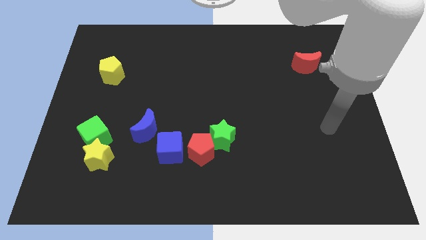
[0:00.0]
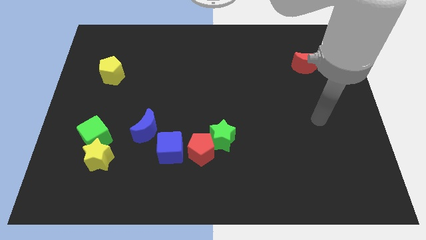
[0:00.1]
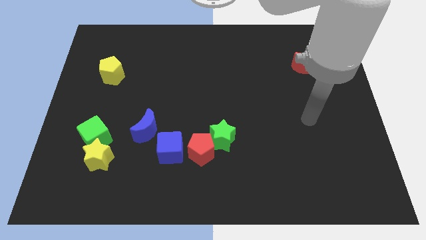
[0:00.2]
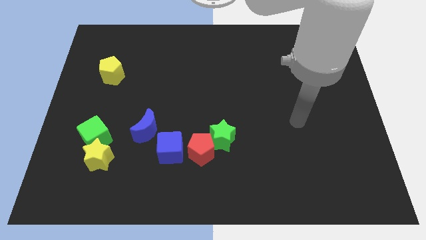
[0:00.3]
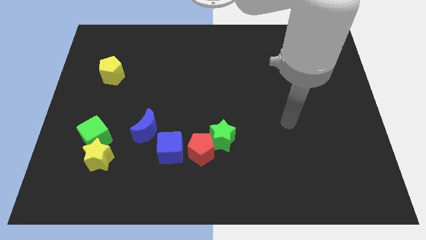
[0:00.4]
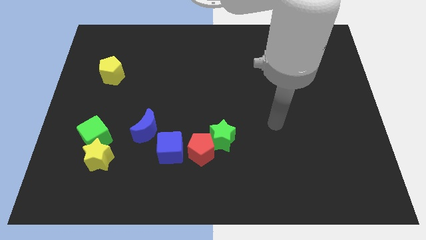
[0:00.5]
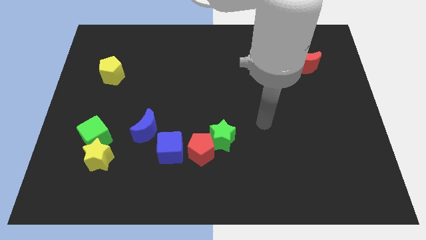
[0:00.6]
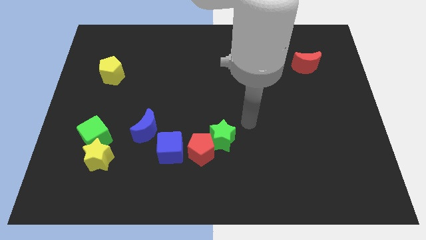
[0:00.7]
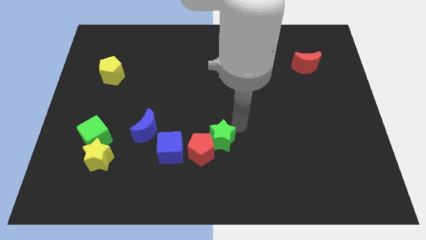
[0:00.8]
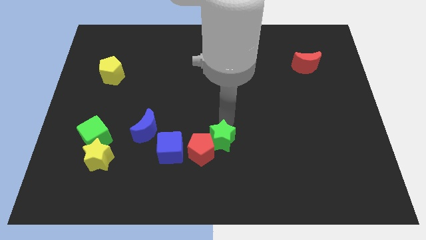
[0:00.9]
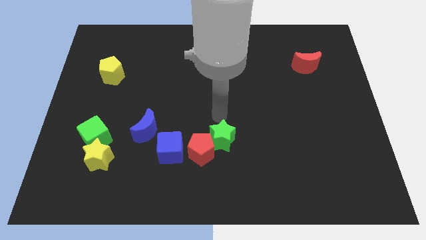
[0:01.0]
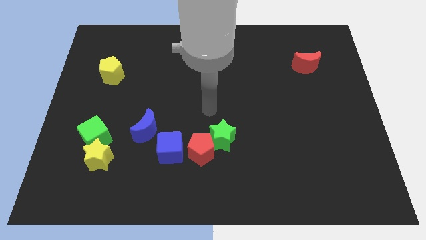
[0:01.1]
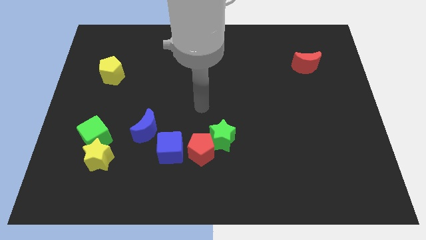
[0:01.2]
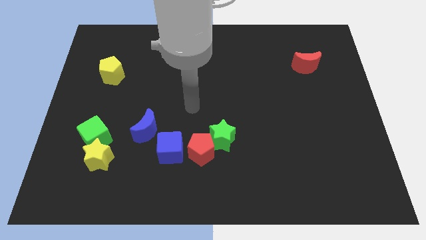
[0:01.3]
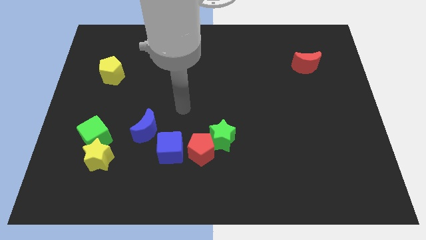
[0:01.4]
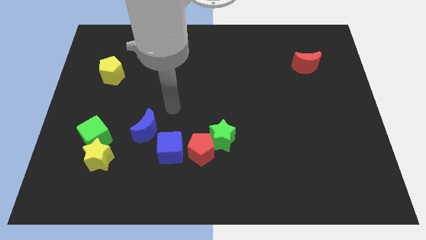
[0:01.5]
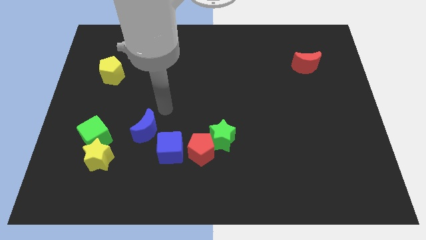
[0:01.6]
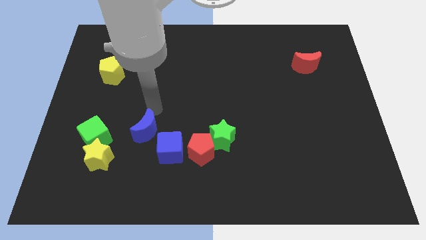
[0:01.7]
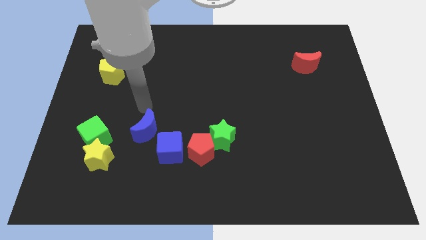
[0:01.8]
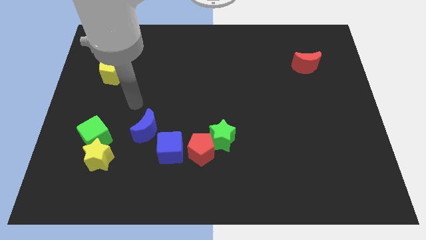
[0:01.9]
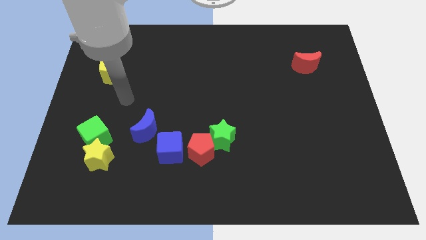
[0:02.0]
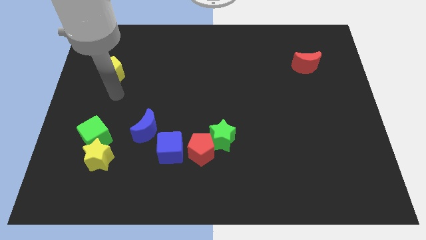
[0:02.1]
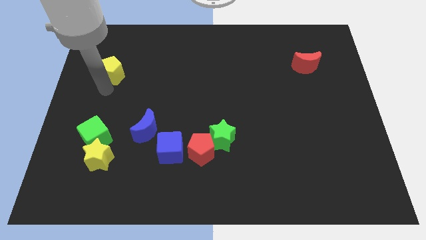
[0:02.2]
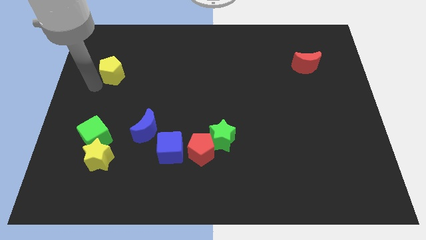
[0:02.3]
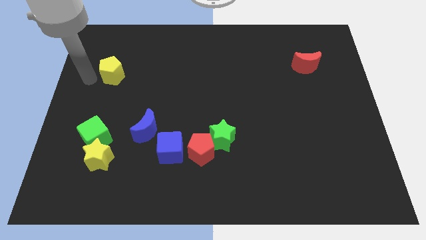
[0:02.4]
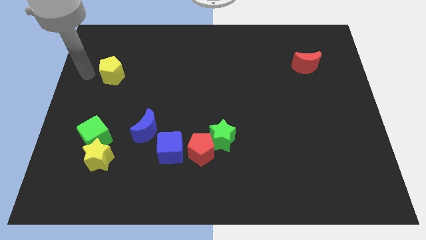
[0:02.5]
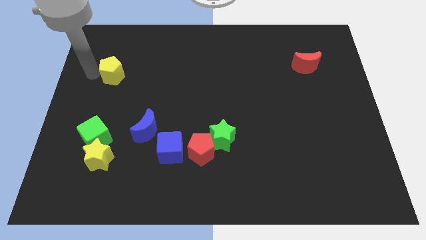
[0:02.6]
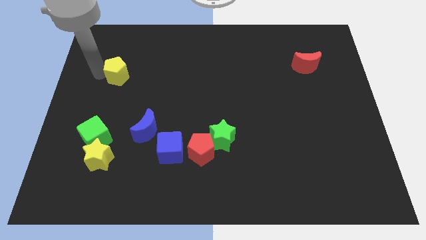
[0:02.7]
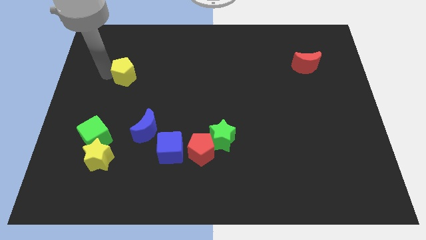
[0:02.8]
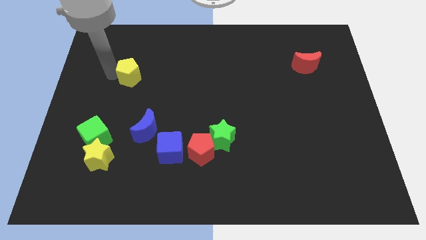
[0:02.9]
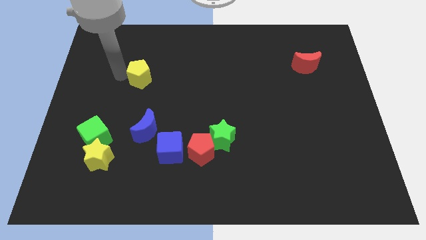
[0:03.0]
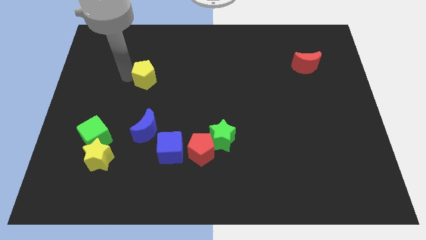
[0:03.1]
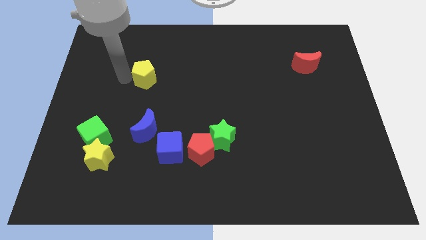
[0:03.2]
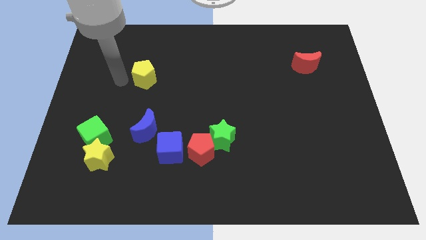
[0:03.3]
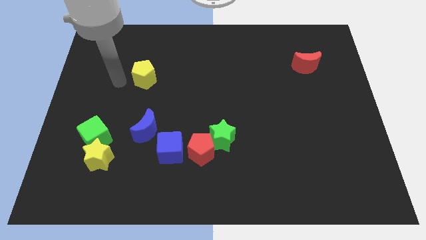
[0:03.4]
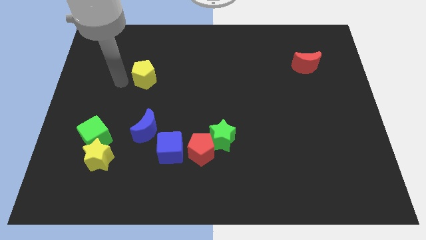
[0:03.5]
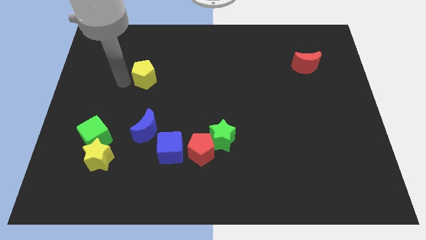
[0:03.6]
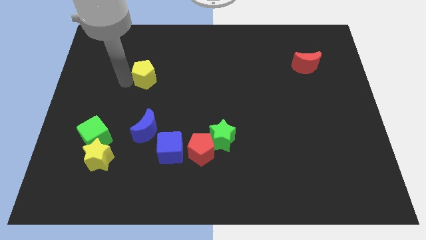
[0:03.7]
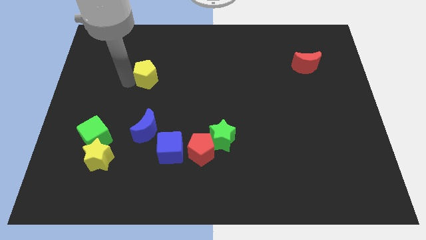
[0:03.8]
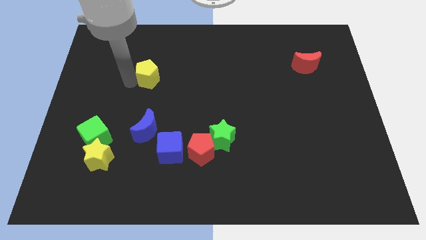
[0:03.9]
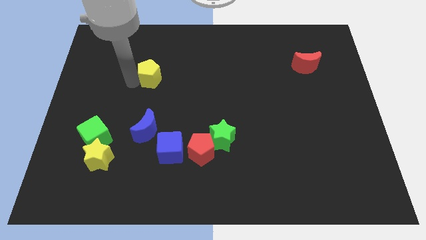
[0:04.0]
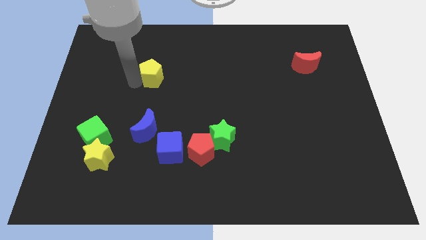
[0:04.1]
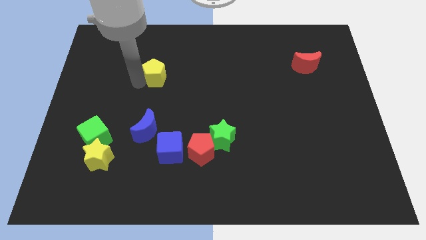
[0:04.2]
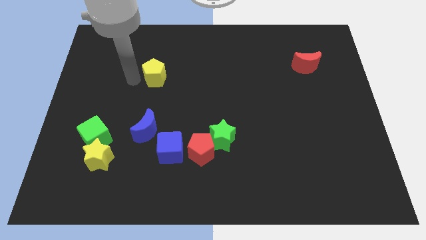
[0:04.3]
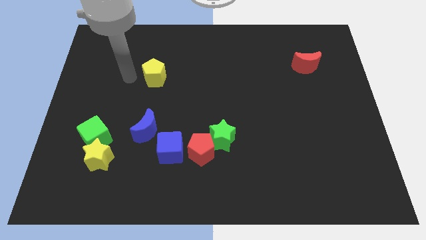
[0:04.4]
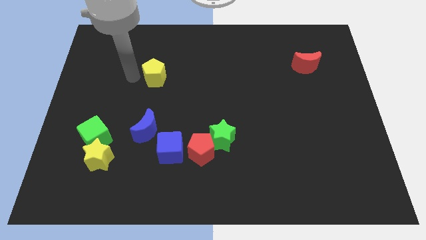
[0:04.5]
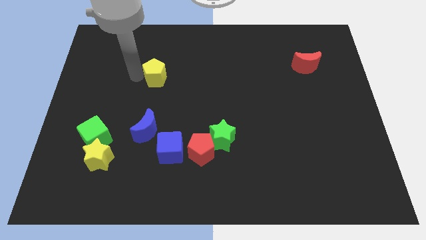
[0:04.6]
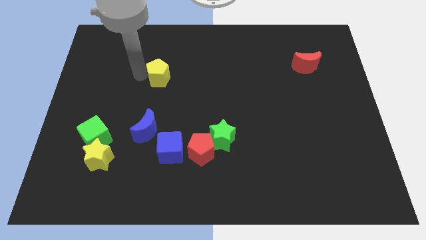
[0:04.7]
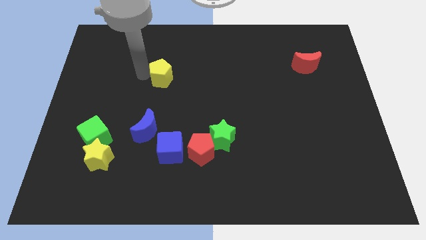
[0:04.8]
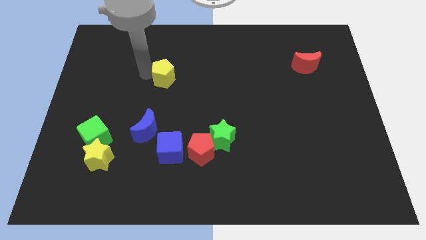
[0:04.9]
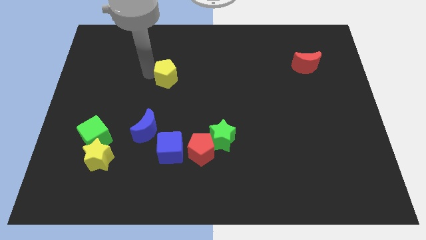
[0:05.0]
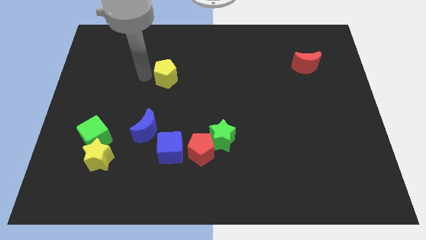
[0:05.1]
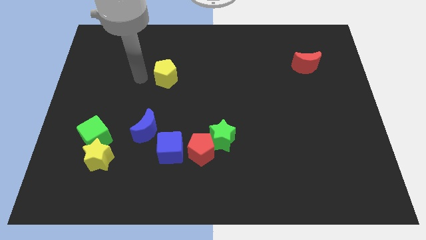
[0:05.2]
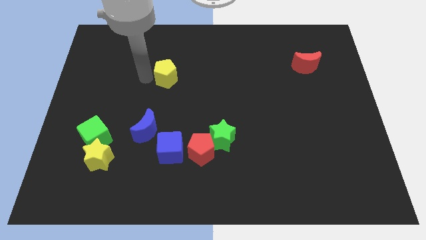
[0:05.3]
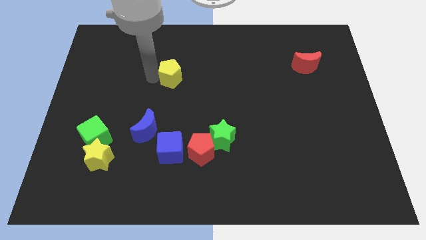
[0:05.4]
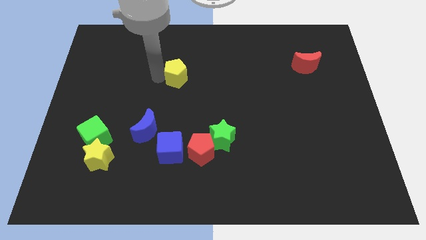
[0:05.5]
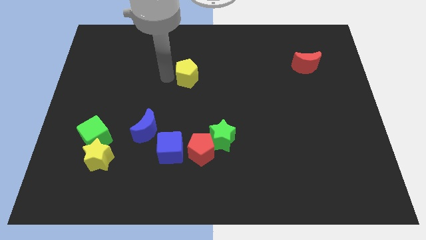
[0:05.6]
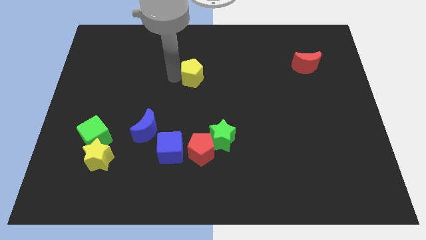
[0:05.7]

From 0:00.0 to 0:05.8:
push the yellow pentagon right

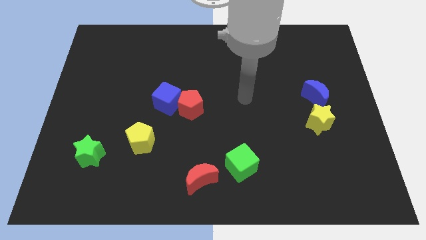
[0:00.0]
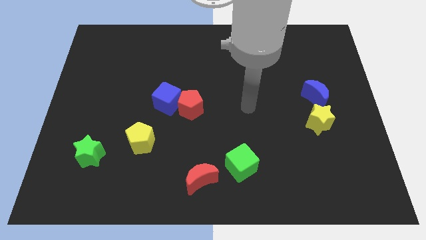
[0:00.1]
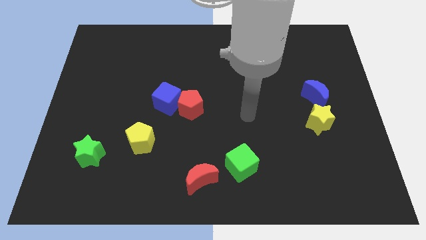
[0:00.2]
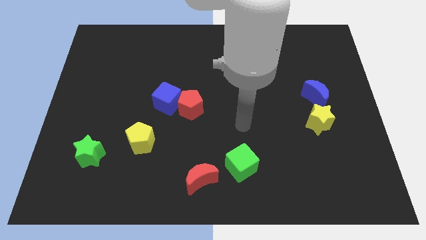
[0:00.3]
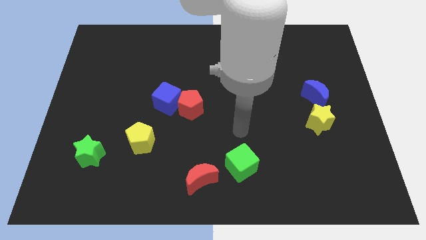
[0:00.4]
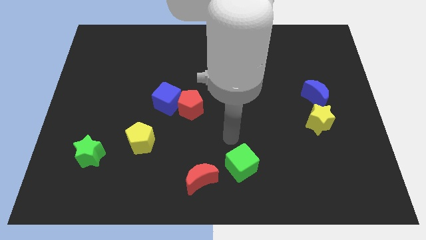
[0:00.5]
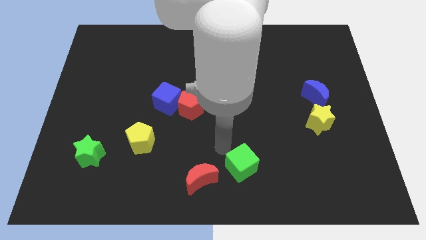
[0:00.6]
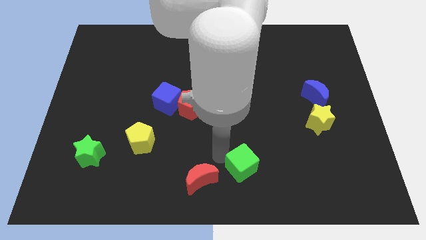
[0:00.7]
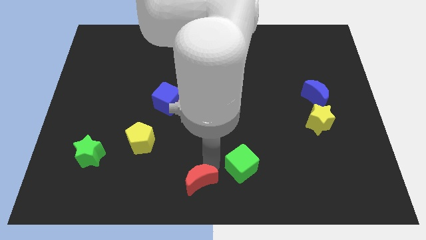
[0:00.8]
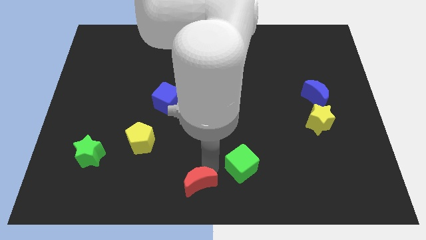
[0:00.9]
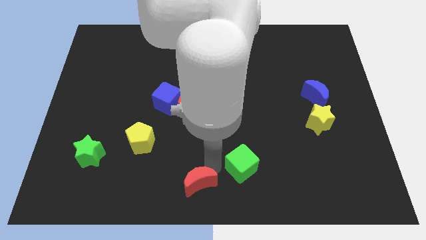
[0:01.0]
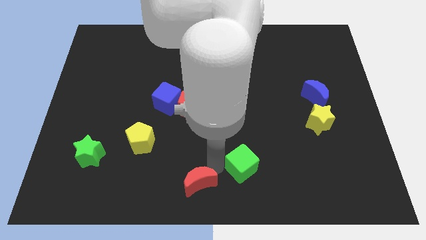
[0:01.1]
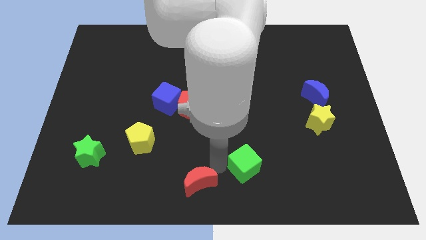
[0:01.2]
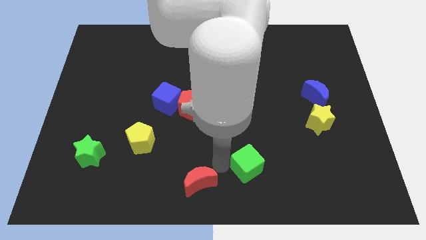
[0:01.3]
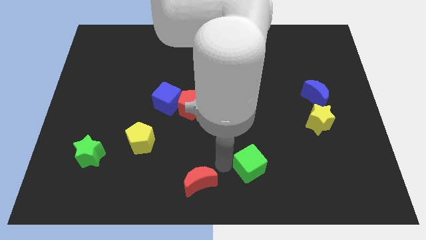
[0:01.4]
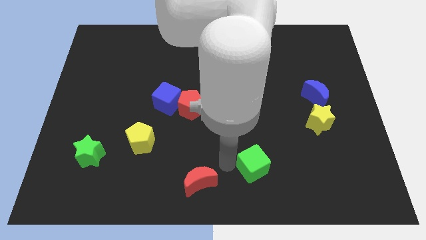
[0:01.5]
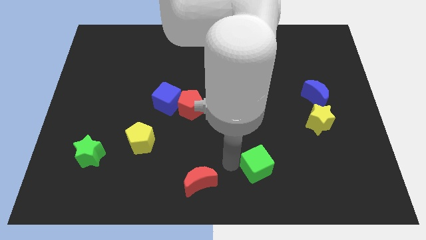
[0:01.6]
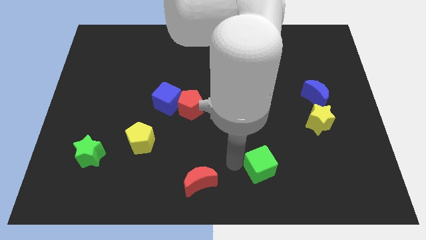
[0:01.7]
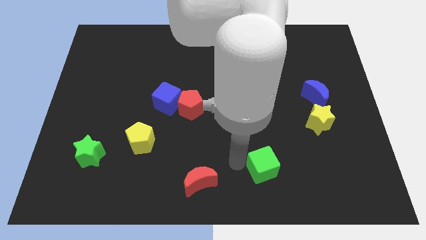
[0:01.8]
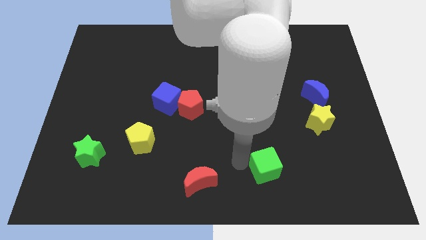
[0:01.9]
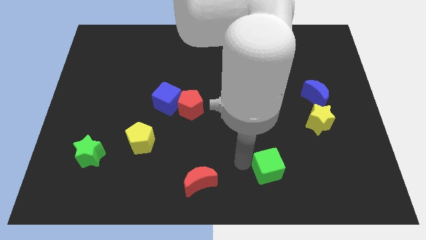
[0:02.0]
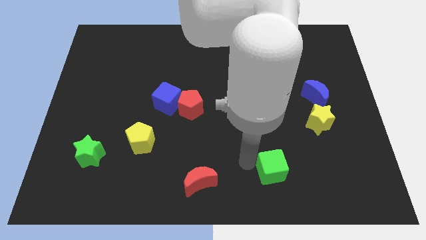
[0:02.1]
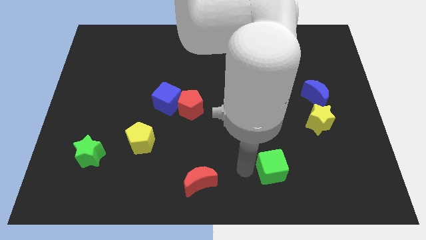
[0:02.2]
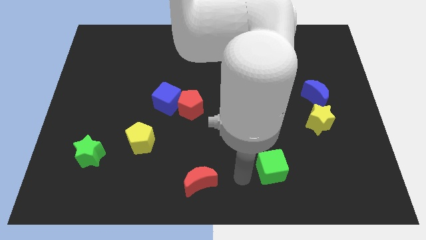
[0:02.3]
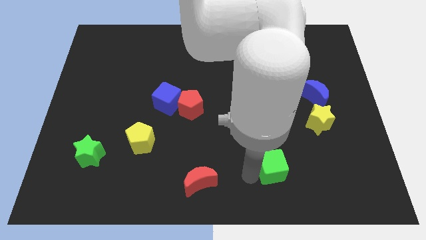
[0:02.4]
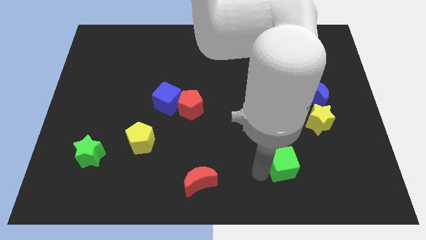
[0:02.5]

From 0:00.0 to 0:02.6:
slightly push the green cube right
